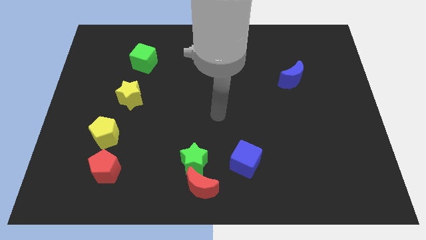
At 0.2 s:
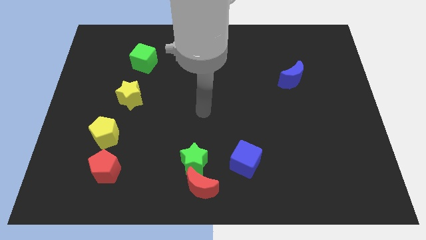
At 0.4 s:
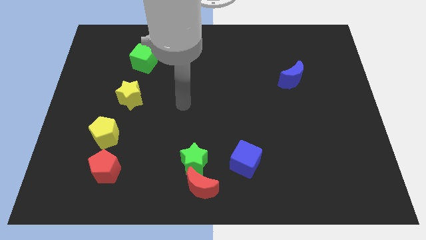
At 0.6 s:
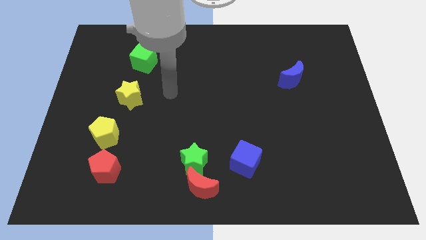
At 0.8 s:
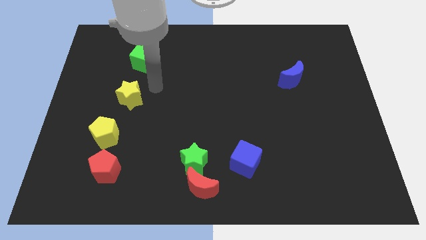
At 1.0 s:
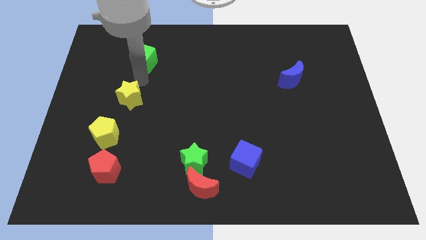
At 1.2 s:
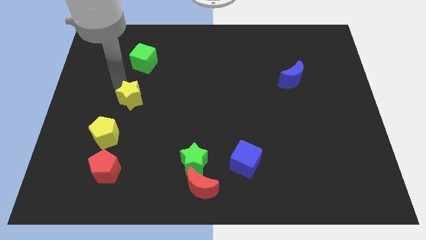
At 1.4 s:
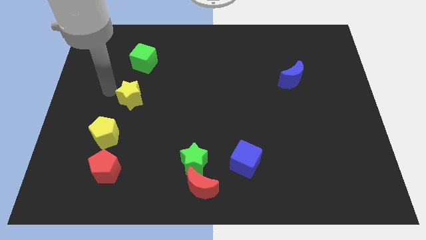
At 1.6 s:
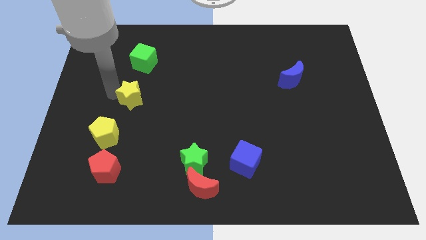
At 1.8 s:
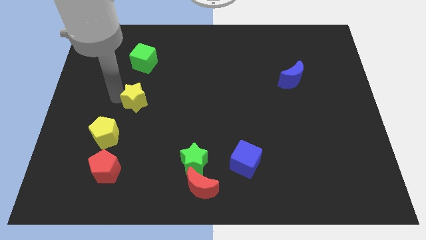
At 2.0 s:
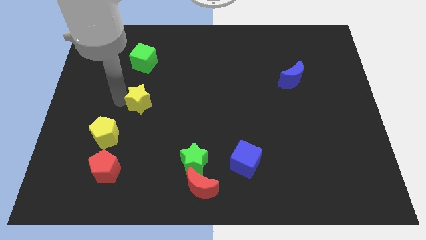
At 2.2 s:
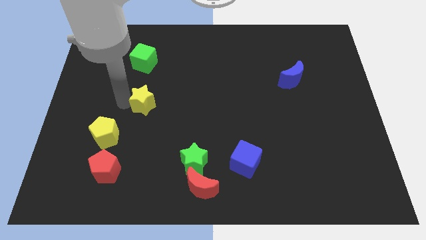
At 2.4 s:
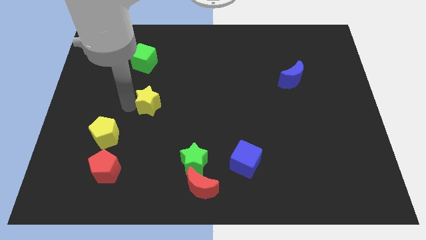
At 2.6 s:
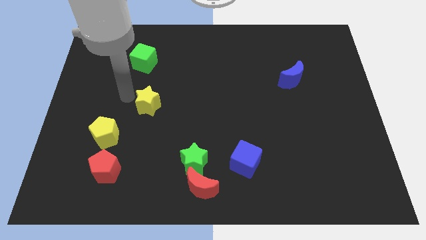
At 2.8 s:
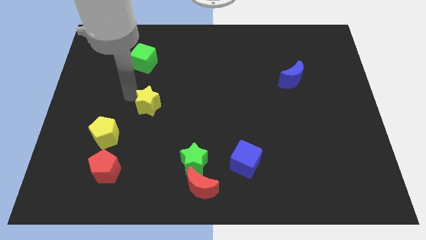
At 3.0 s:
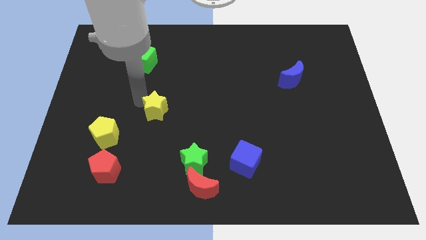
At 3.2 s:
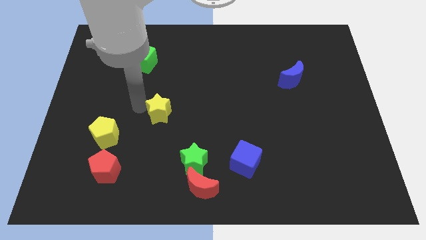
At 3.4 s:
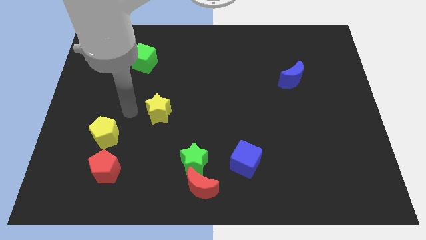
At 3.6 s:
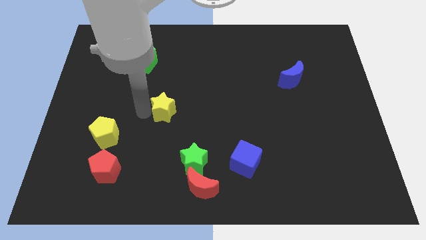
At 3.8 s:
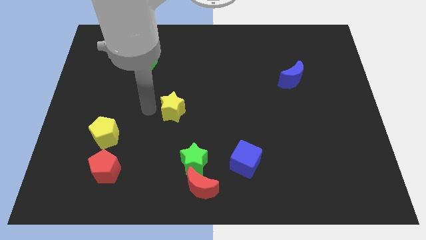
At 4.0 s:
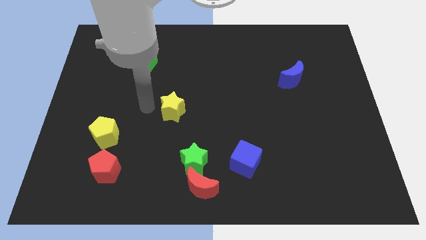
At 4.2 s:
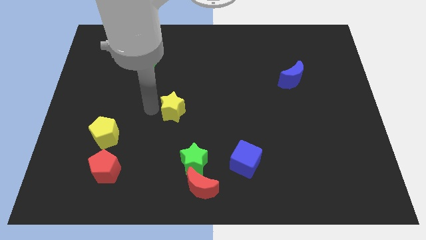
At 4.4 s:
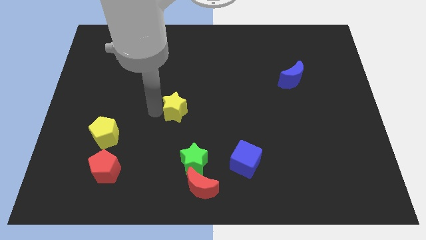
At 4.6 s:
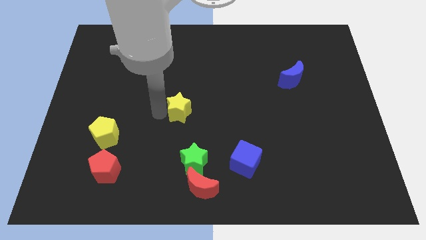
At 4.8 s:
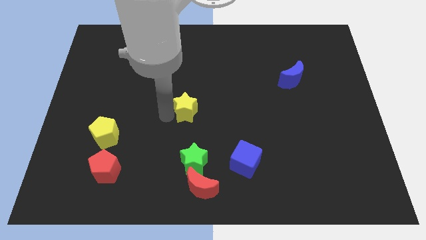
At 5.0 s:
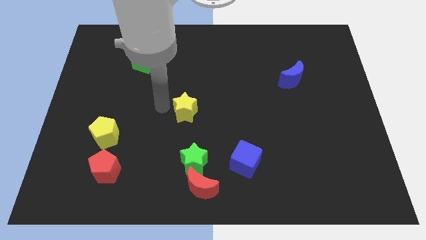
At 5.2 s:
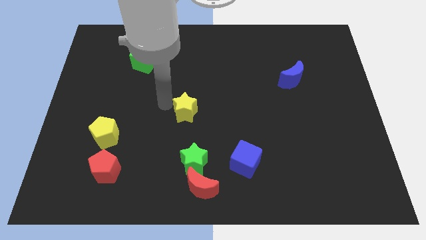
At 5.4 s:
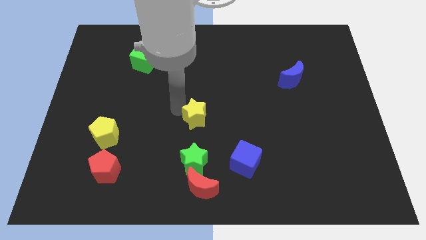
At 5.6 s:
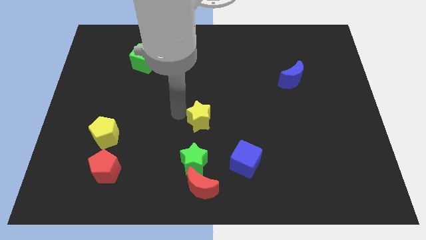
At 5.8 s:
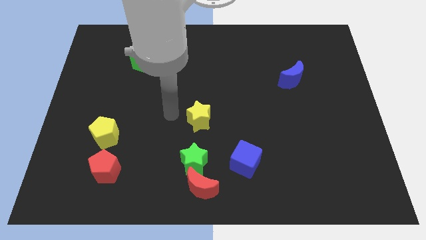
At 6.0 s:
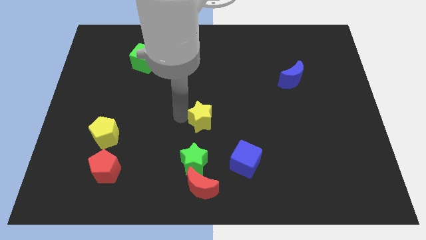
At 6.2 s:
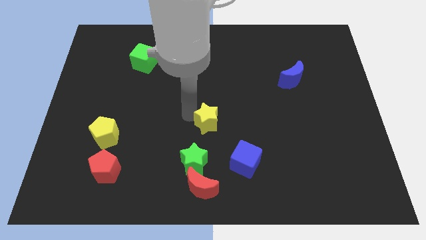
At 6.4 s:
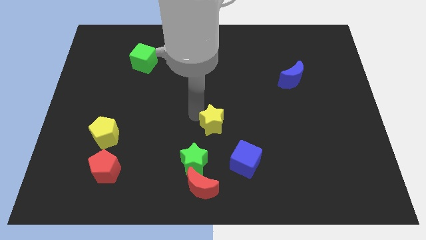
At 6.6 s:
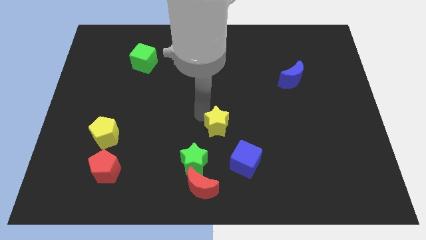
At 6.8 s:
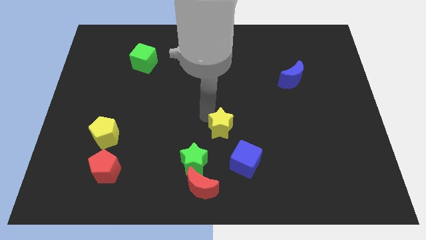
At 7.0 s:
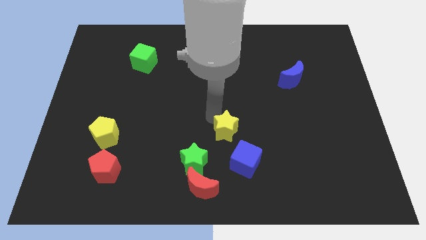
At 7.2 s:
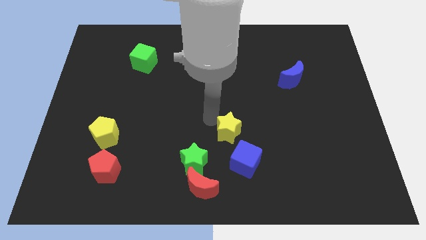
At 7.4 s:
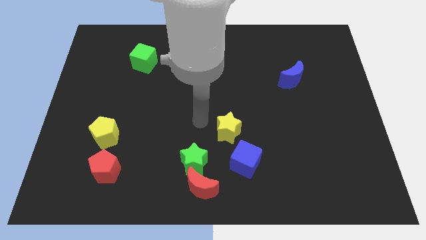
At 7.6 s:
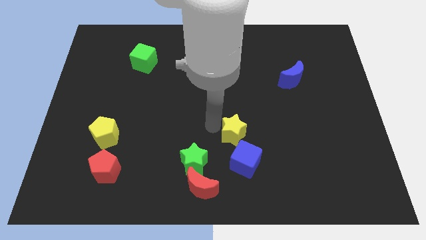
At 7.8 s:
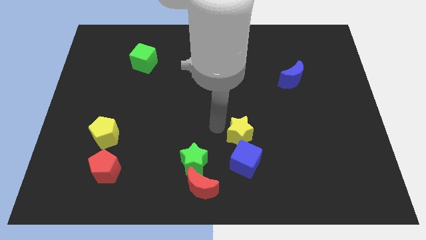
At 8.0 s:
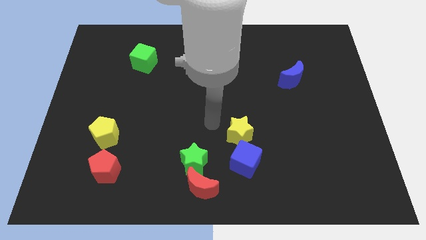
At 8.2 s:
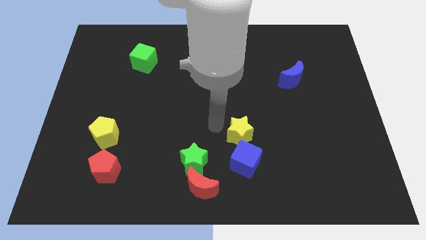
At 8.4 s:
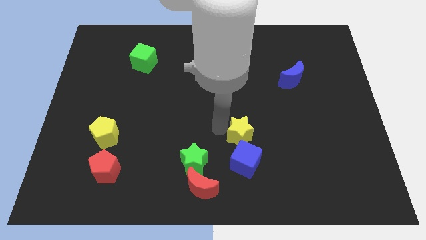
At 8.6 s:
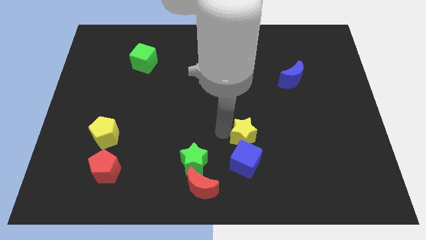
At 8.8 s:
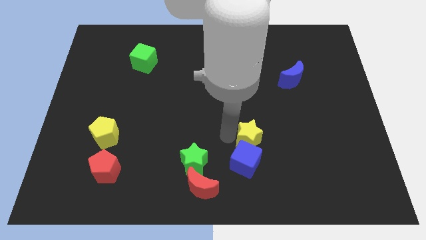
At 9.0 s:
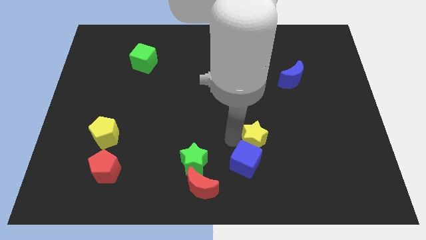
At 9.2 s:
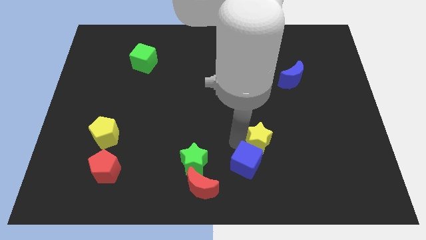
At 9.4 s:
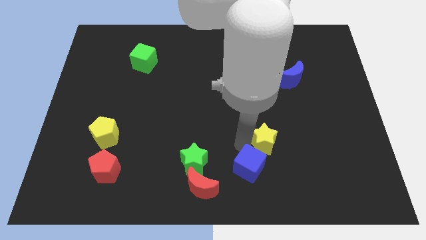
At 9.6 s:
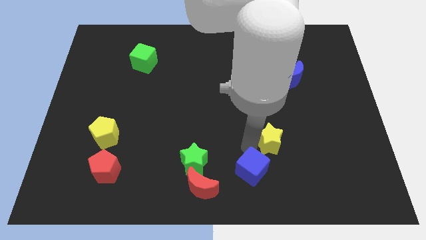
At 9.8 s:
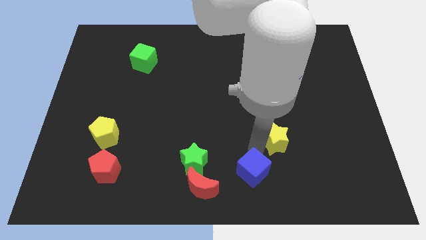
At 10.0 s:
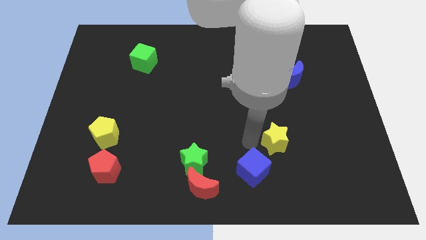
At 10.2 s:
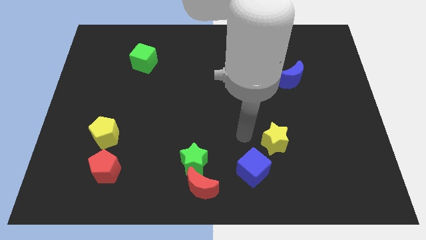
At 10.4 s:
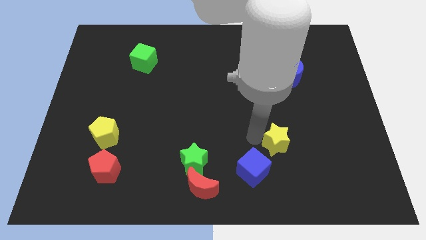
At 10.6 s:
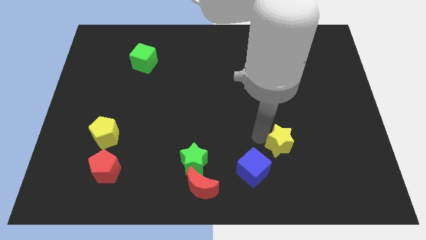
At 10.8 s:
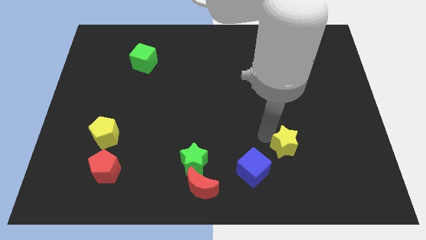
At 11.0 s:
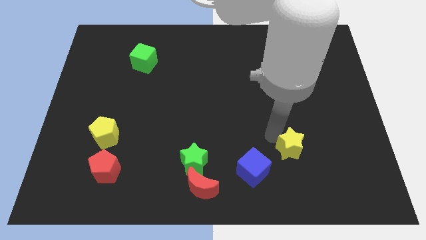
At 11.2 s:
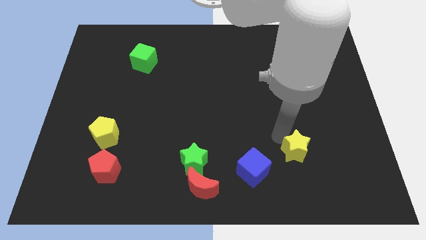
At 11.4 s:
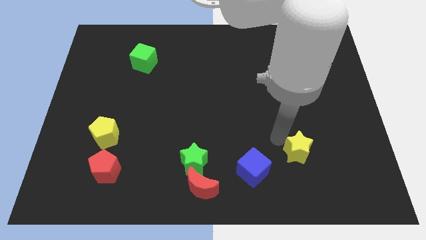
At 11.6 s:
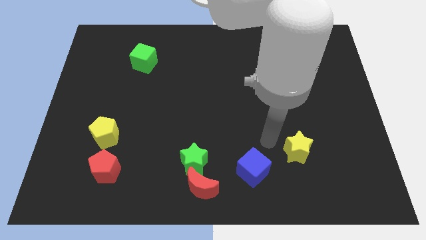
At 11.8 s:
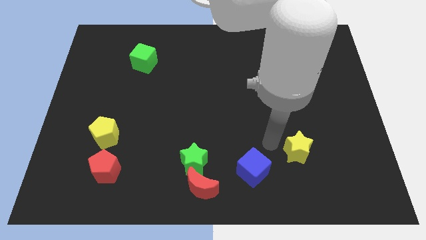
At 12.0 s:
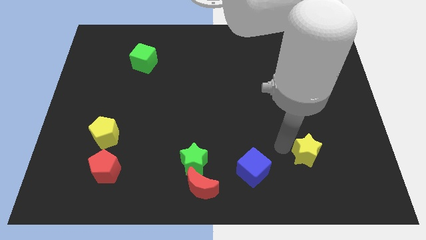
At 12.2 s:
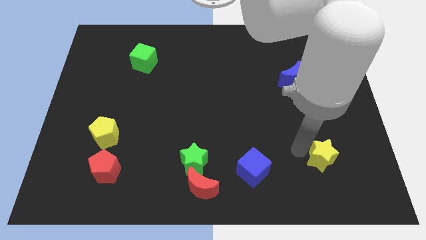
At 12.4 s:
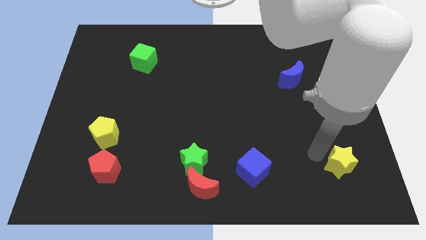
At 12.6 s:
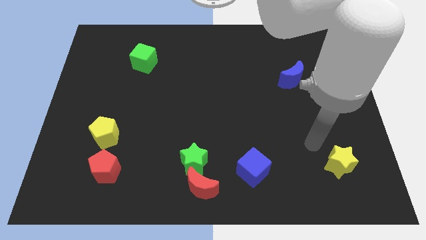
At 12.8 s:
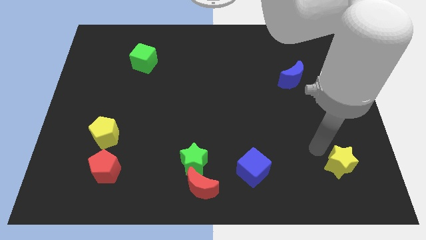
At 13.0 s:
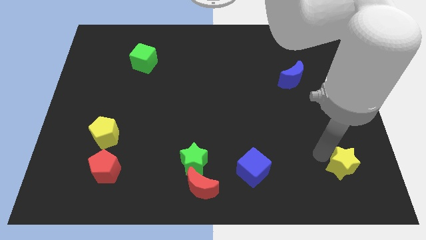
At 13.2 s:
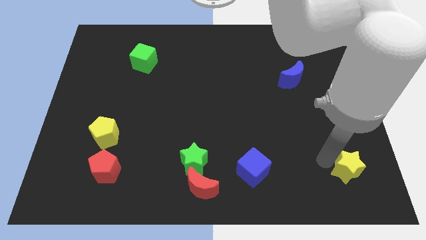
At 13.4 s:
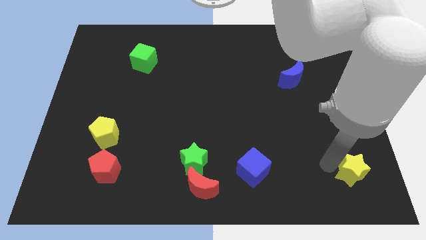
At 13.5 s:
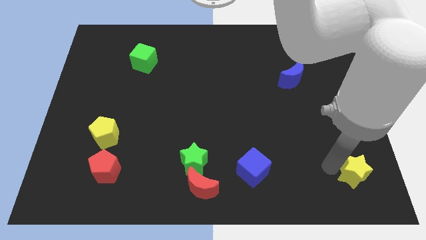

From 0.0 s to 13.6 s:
move the yellow star to the bottom right corner

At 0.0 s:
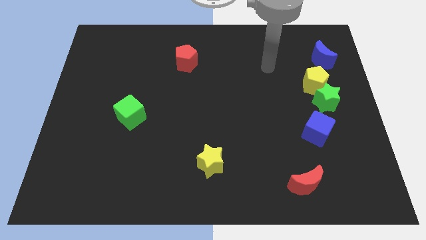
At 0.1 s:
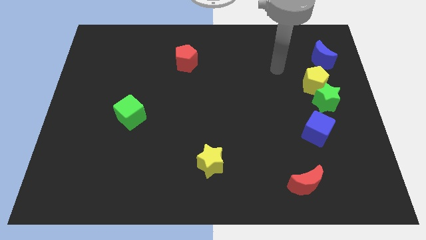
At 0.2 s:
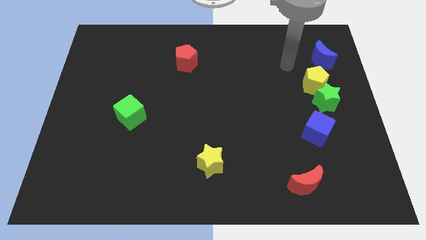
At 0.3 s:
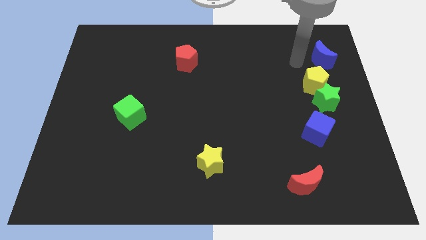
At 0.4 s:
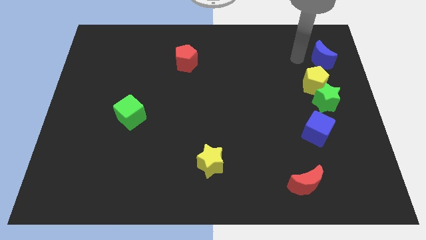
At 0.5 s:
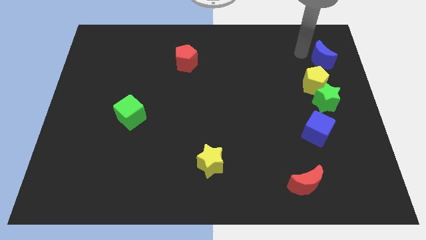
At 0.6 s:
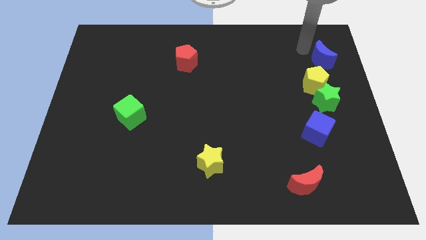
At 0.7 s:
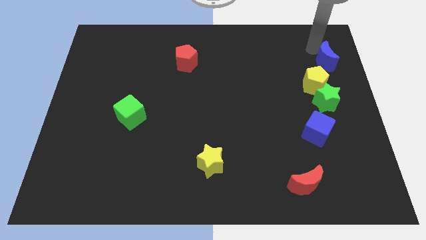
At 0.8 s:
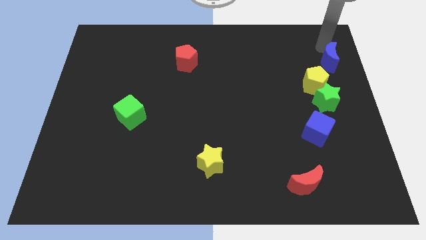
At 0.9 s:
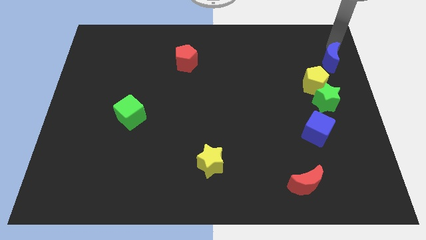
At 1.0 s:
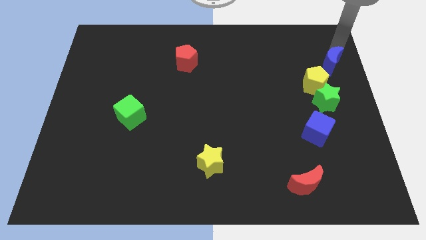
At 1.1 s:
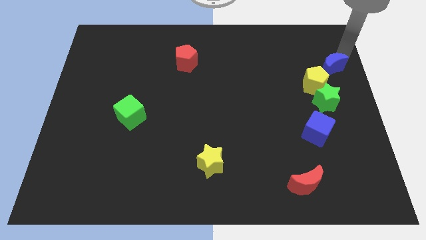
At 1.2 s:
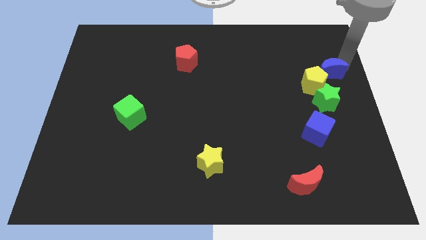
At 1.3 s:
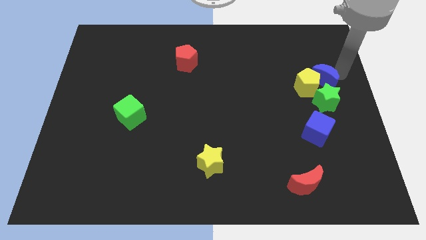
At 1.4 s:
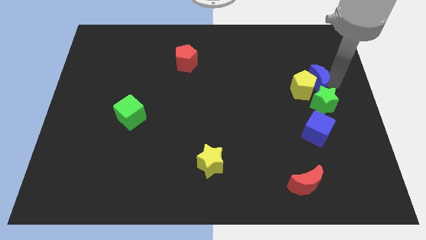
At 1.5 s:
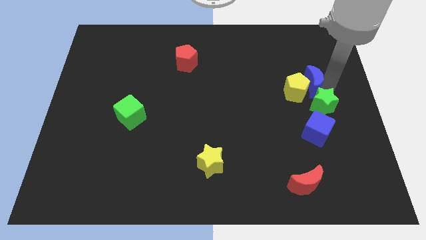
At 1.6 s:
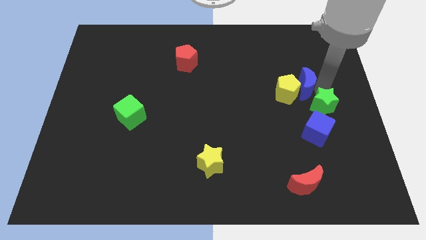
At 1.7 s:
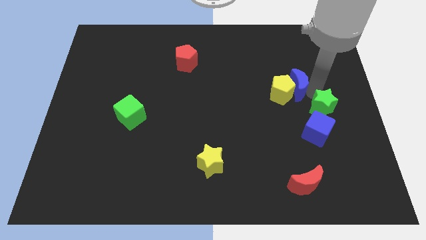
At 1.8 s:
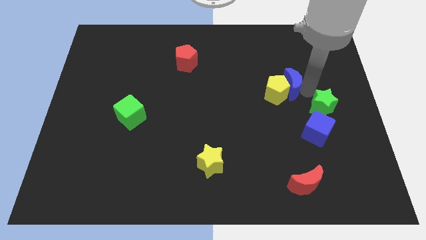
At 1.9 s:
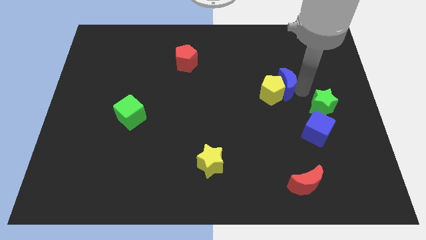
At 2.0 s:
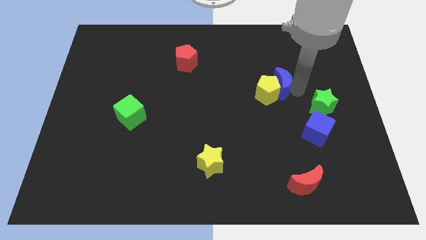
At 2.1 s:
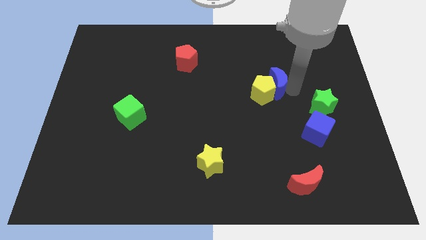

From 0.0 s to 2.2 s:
move the yellow pentagon to the center
